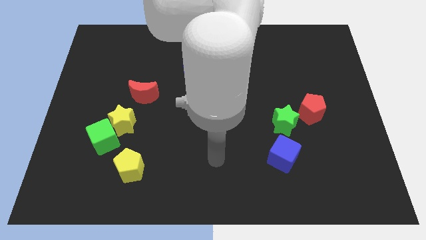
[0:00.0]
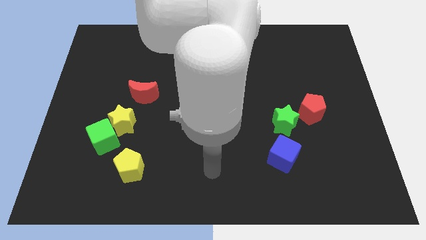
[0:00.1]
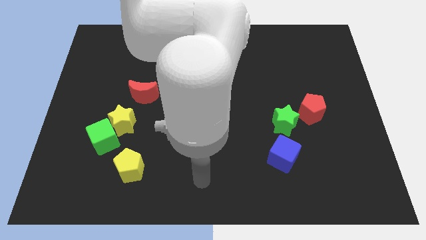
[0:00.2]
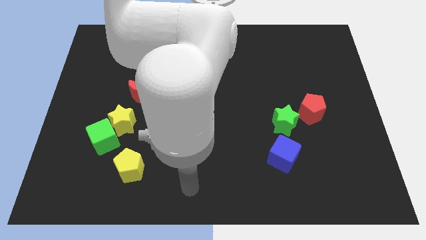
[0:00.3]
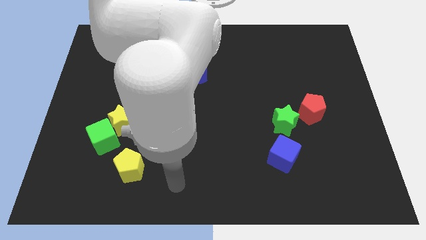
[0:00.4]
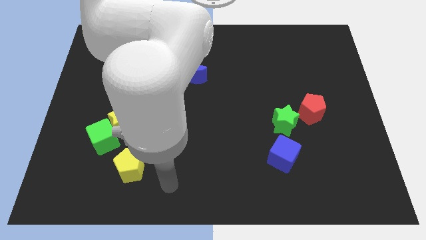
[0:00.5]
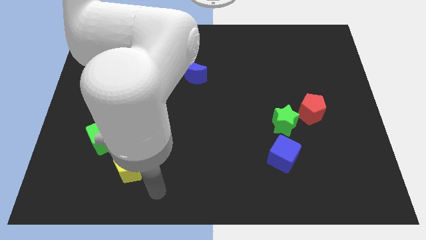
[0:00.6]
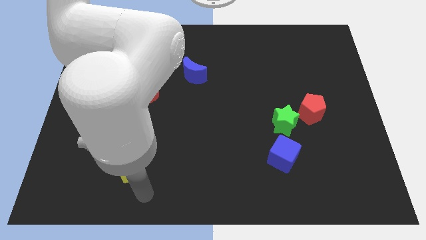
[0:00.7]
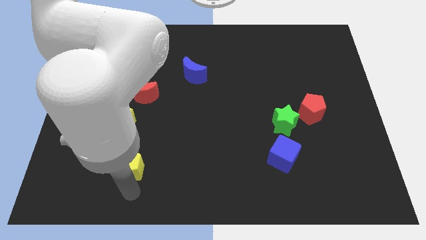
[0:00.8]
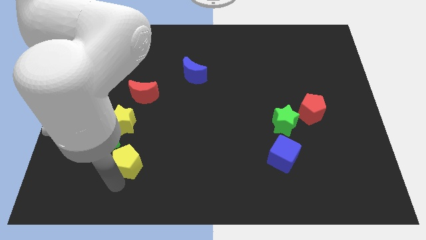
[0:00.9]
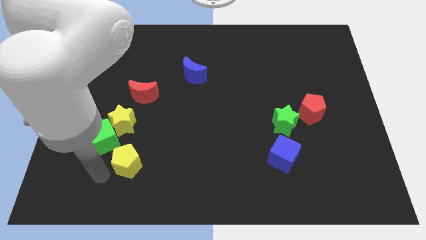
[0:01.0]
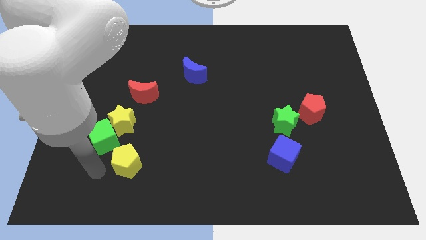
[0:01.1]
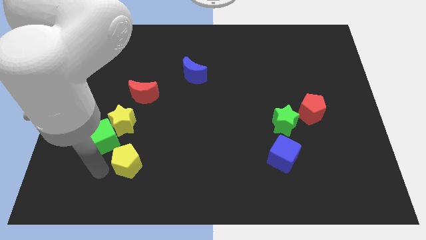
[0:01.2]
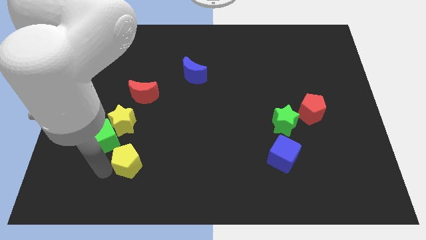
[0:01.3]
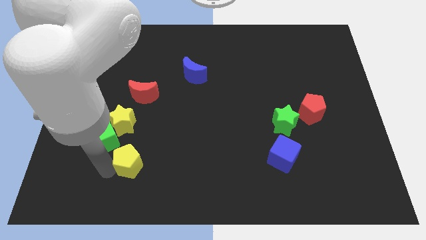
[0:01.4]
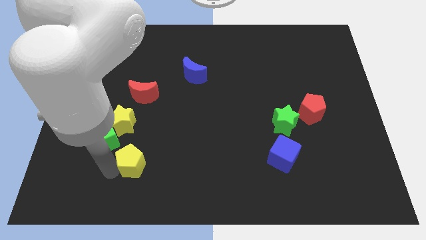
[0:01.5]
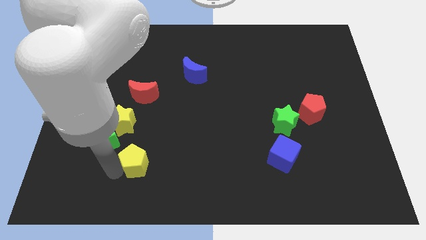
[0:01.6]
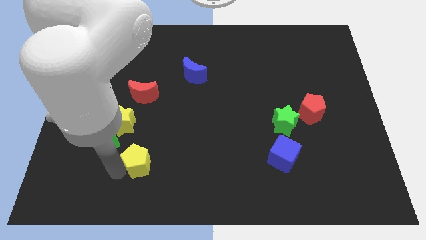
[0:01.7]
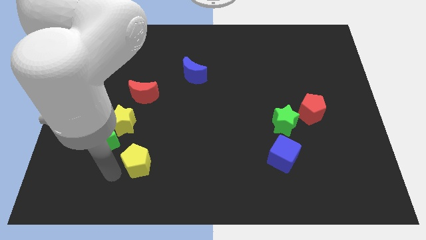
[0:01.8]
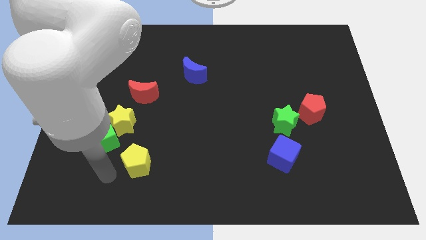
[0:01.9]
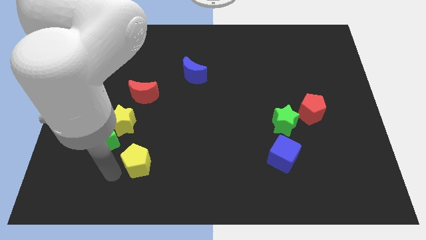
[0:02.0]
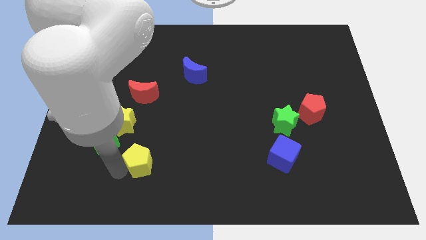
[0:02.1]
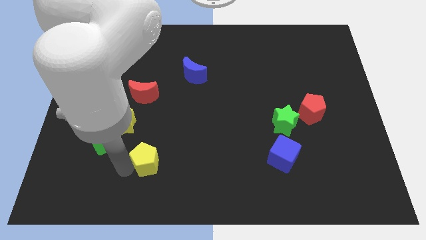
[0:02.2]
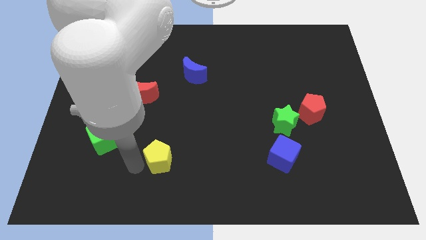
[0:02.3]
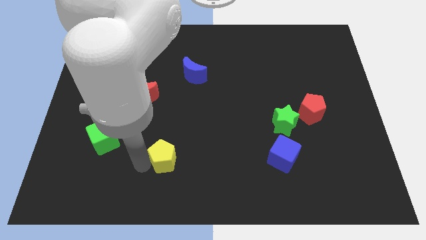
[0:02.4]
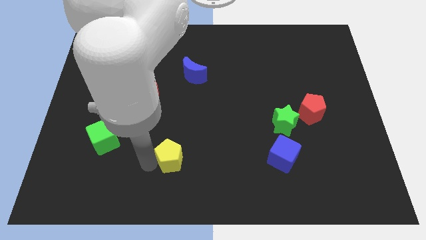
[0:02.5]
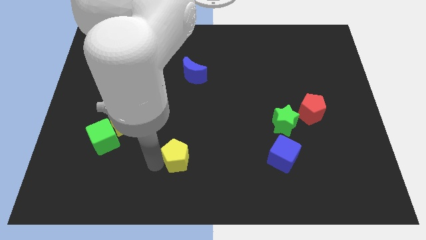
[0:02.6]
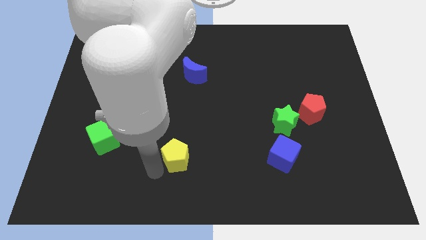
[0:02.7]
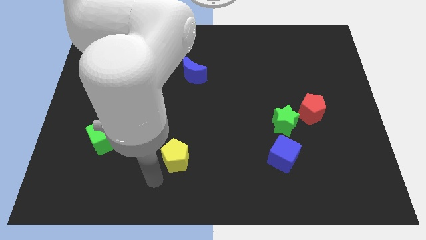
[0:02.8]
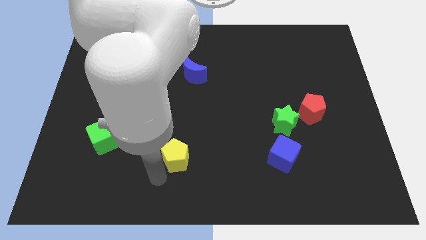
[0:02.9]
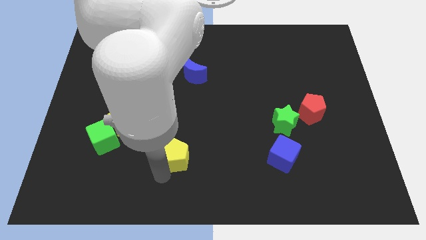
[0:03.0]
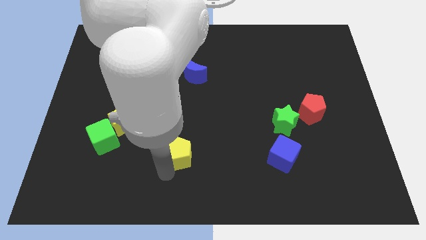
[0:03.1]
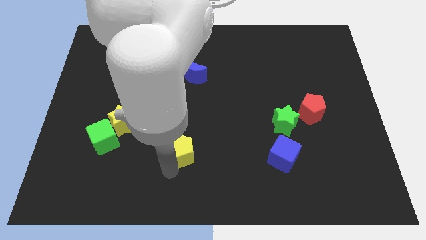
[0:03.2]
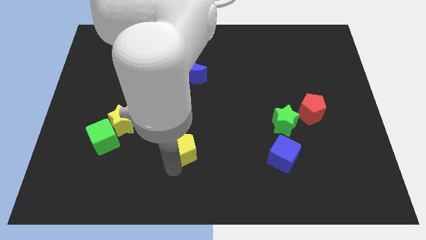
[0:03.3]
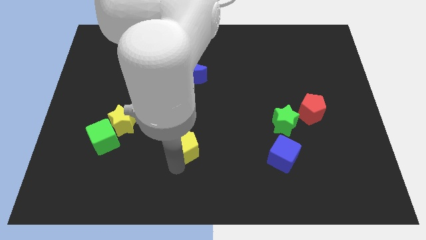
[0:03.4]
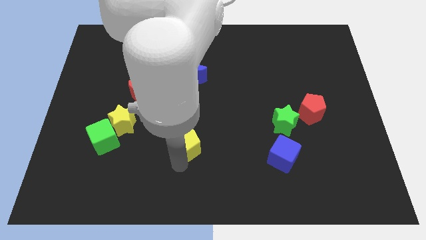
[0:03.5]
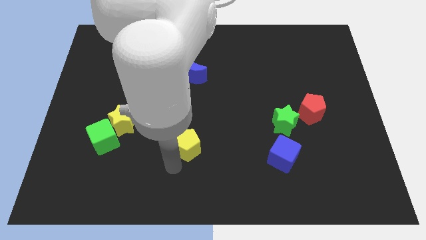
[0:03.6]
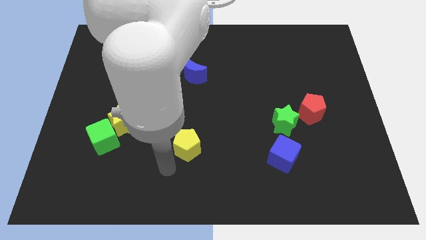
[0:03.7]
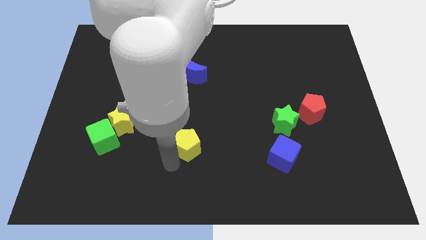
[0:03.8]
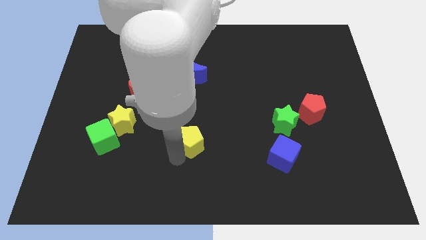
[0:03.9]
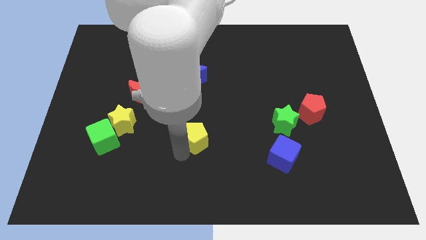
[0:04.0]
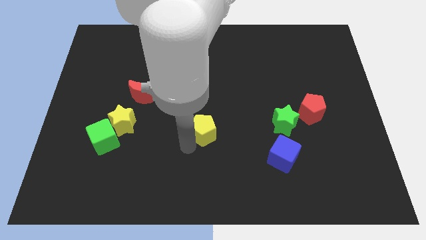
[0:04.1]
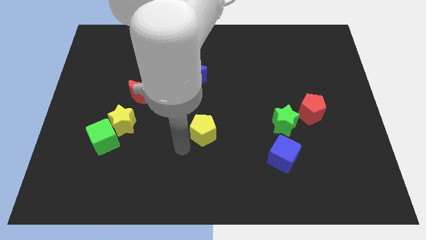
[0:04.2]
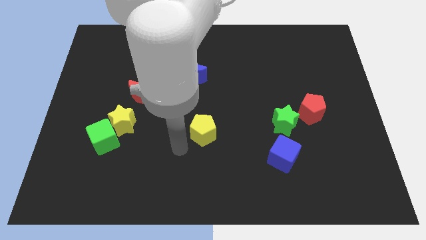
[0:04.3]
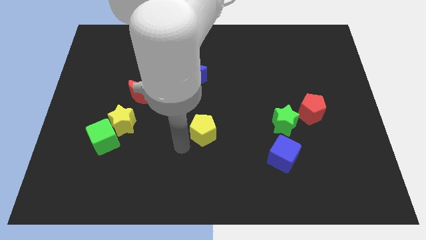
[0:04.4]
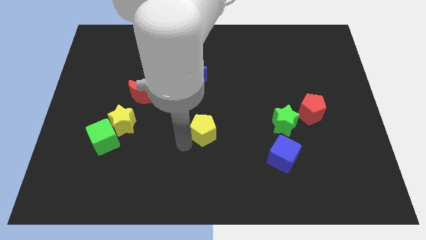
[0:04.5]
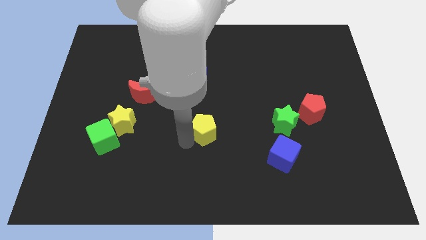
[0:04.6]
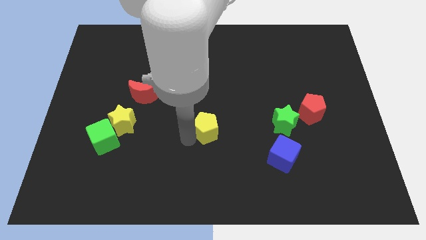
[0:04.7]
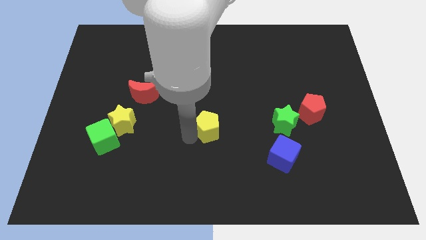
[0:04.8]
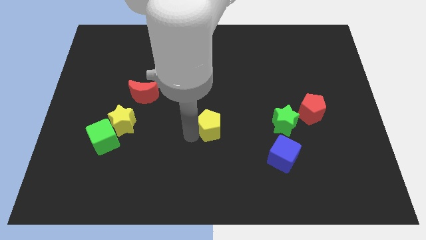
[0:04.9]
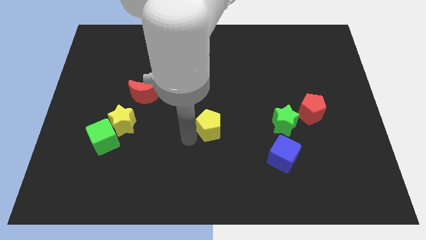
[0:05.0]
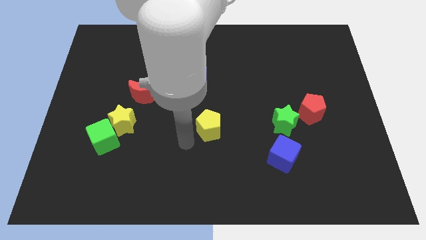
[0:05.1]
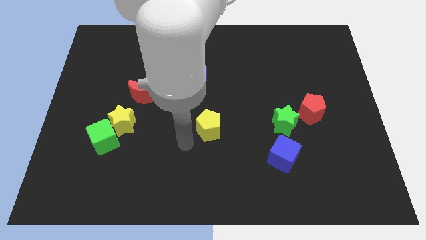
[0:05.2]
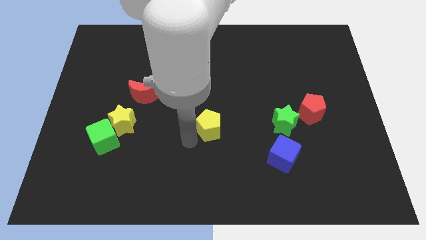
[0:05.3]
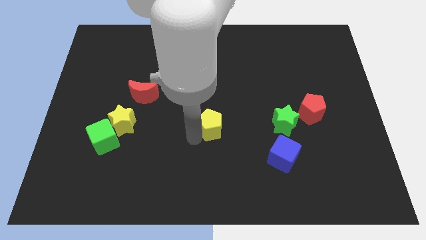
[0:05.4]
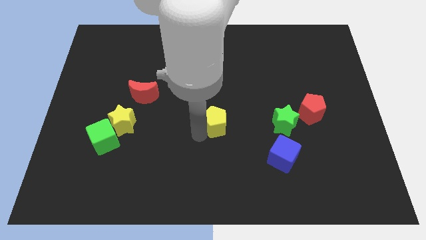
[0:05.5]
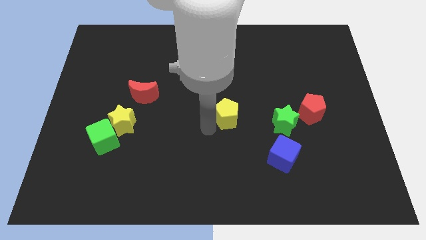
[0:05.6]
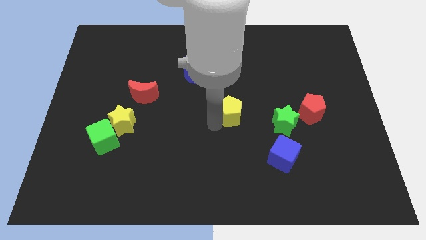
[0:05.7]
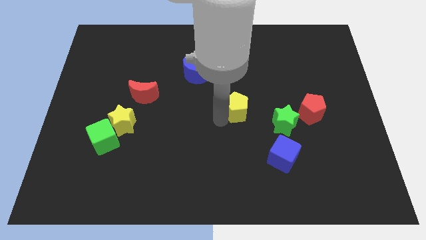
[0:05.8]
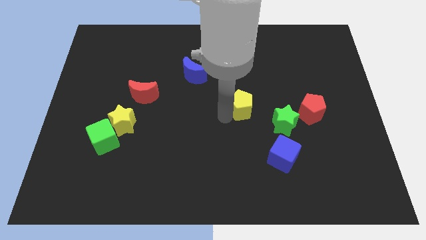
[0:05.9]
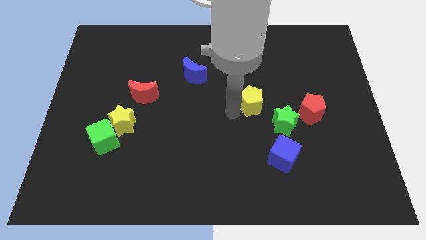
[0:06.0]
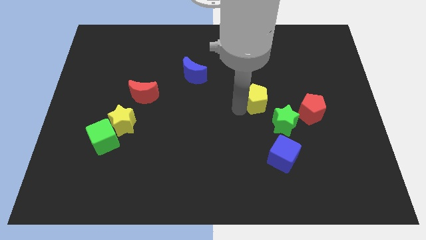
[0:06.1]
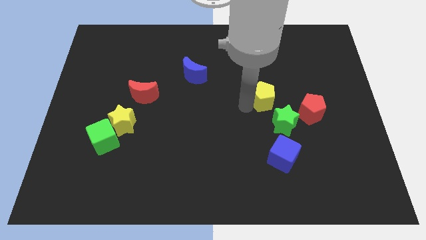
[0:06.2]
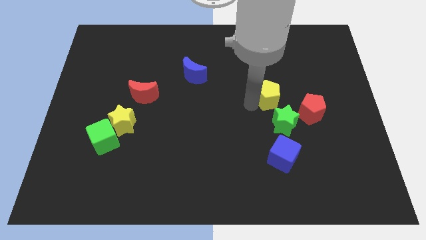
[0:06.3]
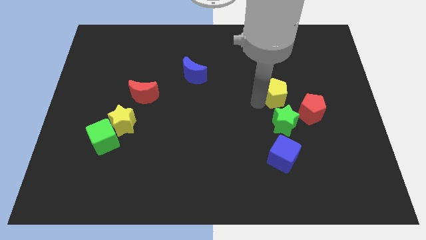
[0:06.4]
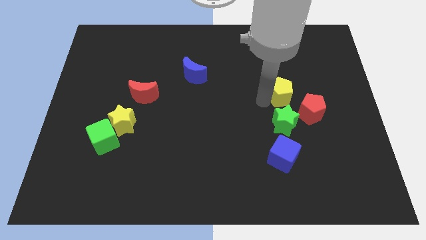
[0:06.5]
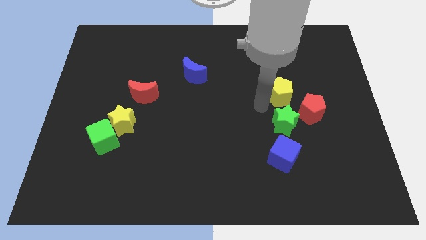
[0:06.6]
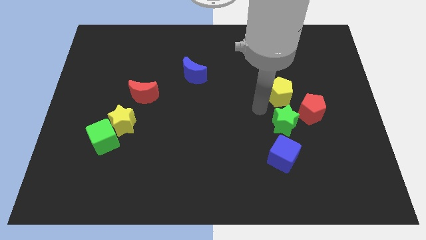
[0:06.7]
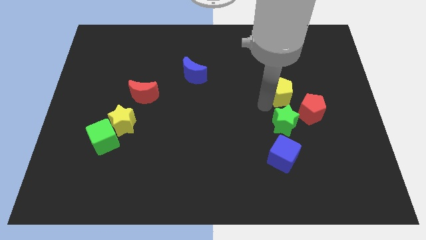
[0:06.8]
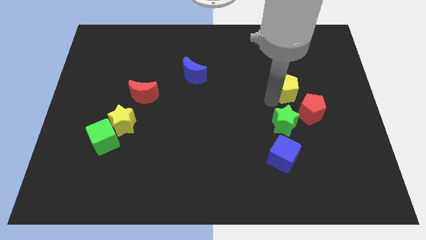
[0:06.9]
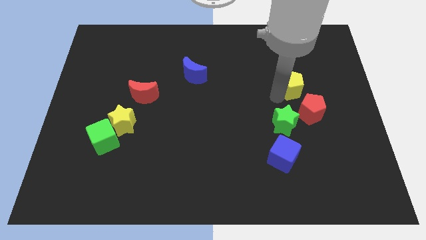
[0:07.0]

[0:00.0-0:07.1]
put the yellow pentagon above the red pentagon
